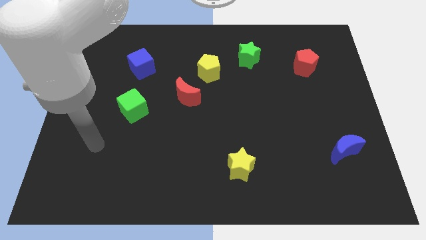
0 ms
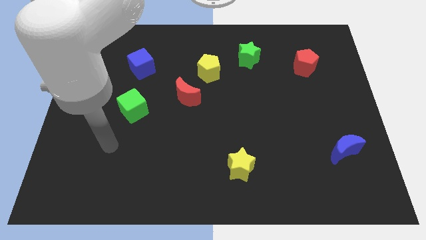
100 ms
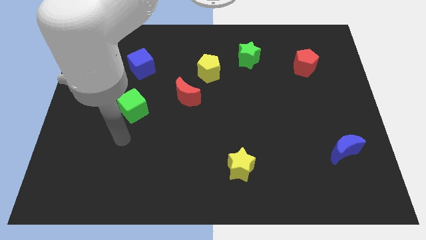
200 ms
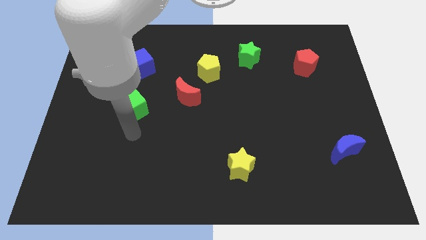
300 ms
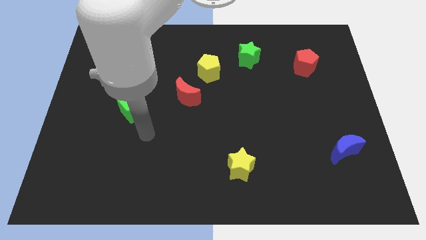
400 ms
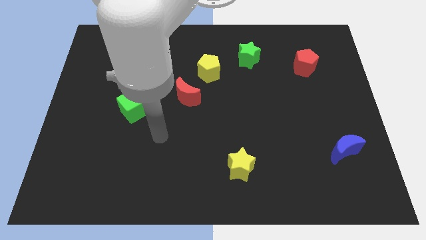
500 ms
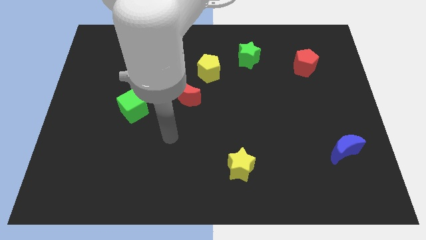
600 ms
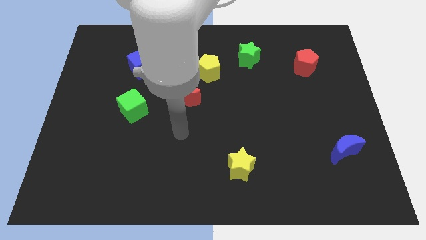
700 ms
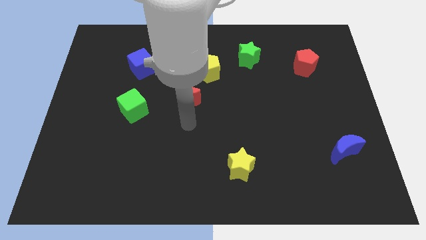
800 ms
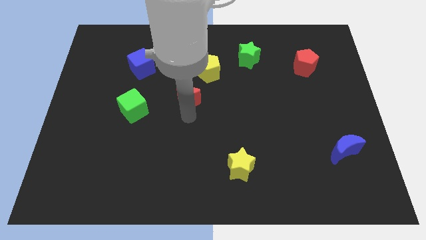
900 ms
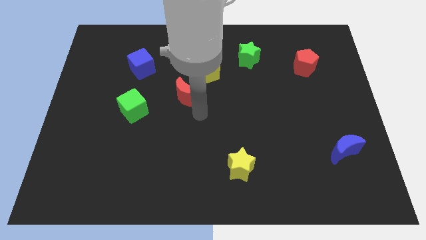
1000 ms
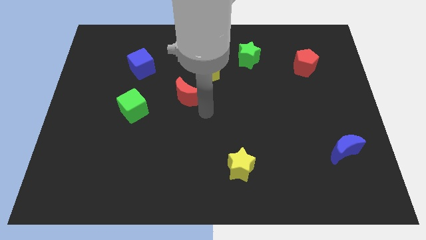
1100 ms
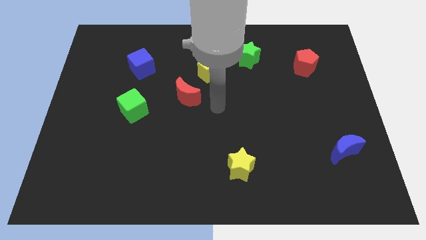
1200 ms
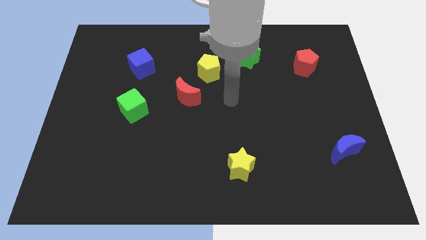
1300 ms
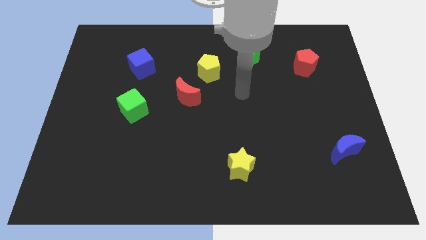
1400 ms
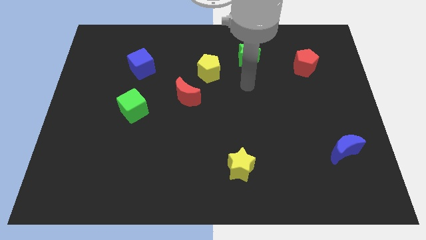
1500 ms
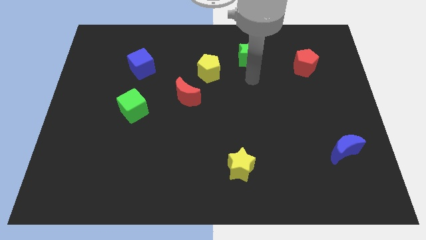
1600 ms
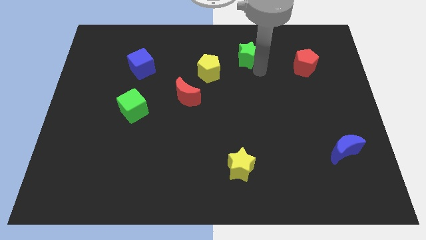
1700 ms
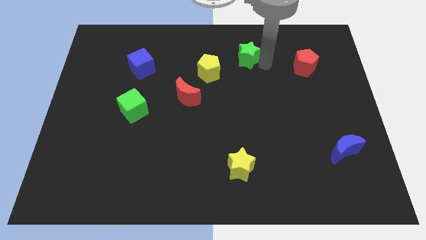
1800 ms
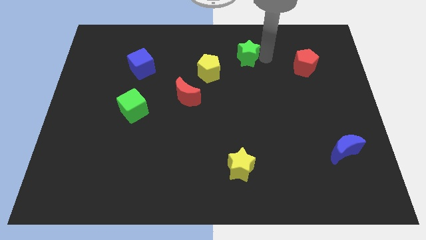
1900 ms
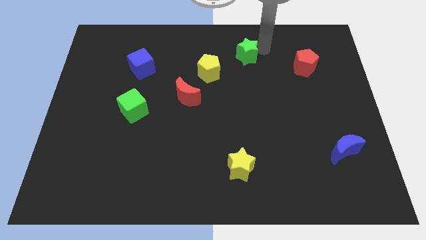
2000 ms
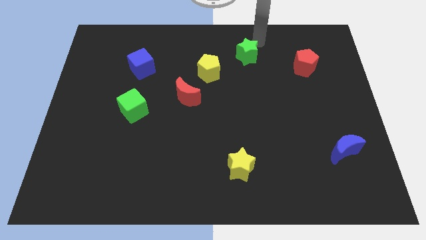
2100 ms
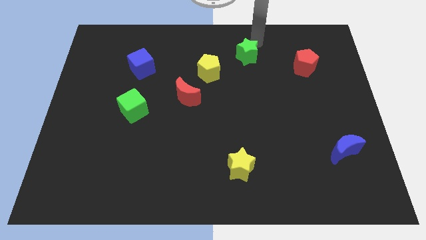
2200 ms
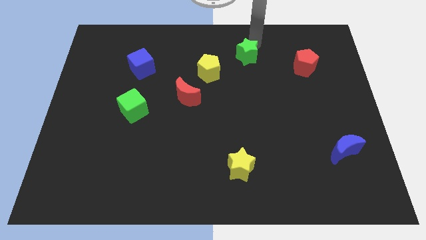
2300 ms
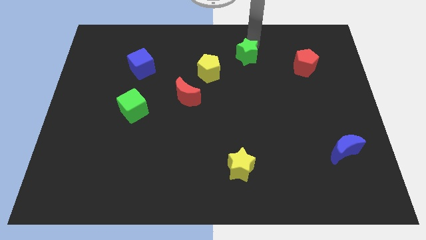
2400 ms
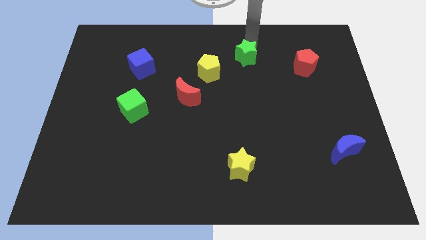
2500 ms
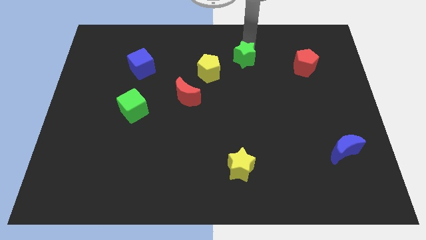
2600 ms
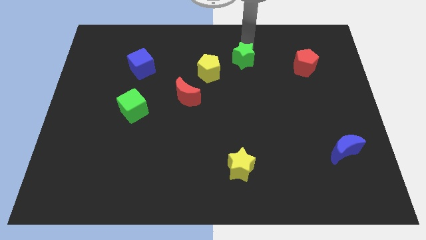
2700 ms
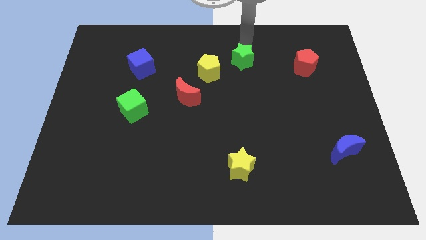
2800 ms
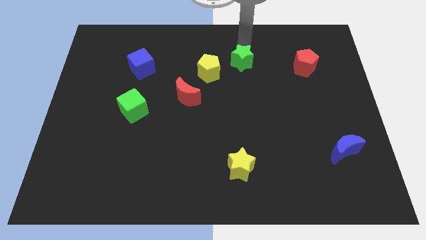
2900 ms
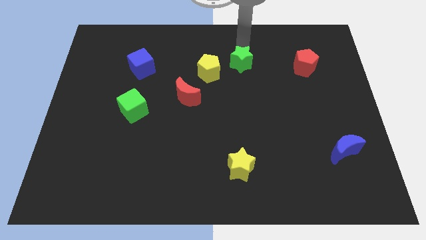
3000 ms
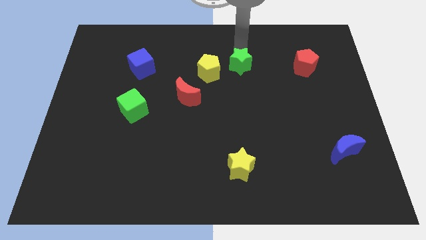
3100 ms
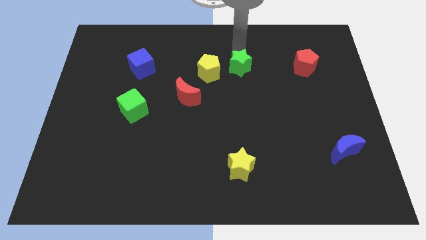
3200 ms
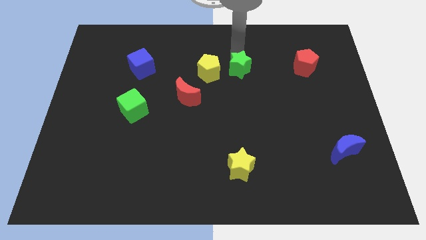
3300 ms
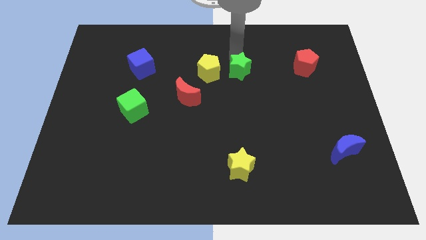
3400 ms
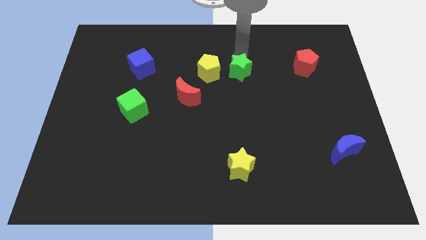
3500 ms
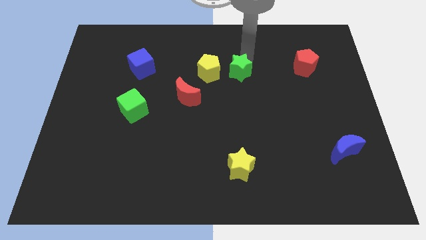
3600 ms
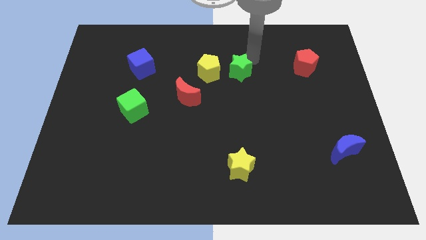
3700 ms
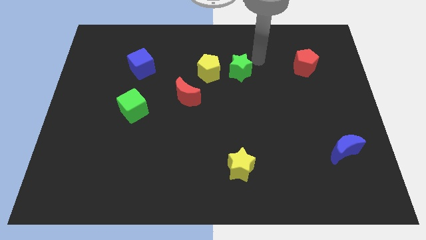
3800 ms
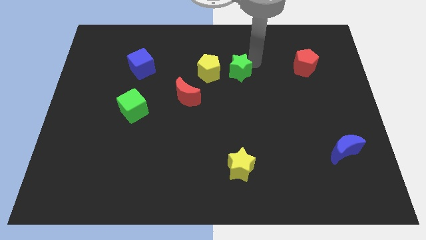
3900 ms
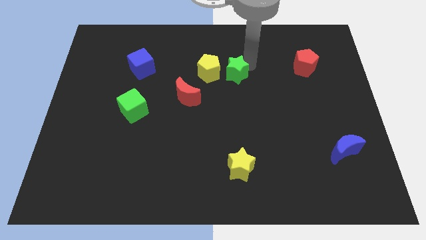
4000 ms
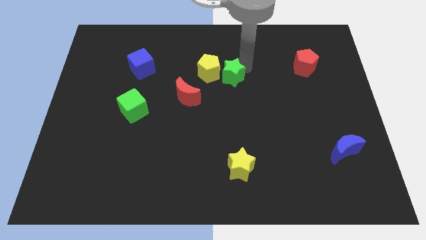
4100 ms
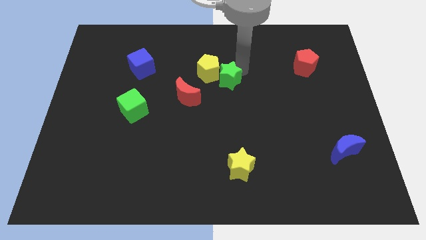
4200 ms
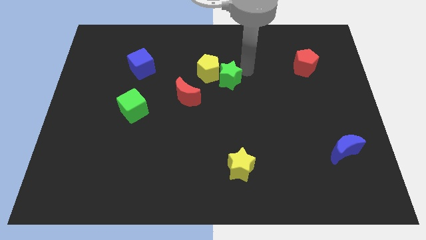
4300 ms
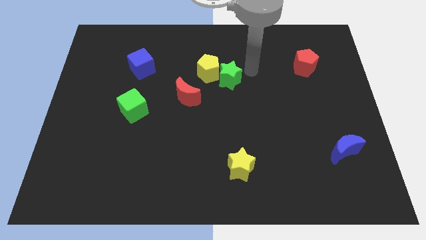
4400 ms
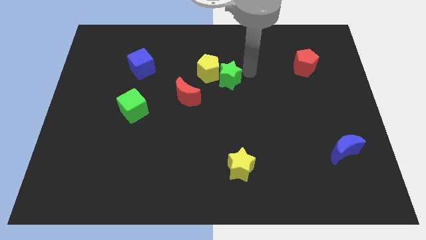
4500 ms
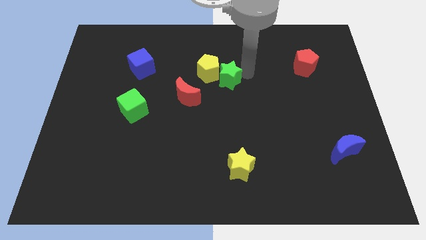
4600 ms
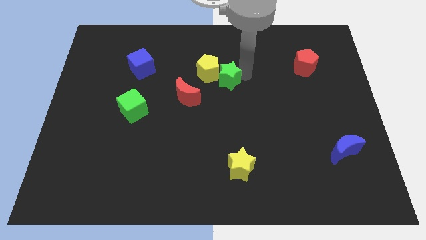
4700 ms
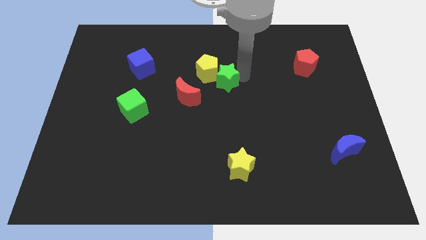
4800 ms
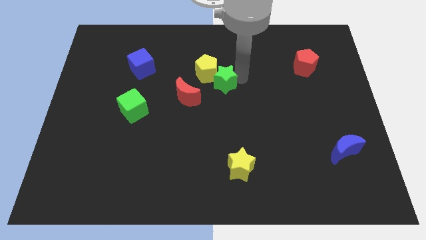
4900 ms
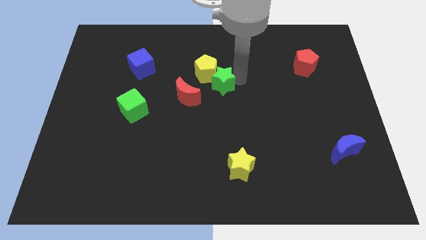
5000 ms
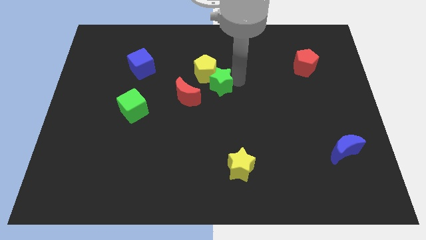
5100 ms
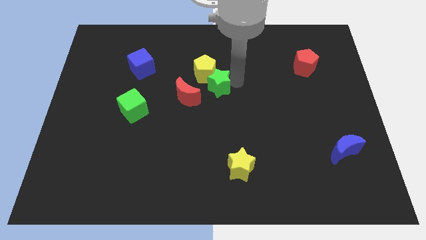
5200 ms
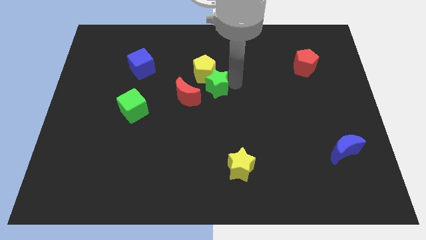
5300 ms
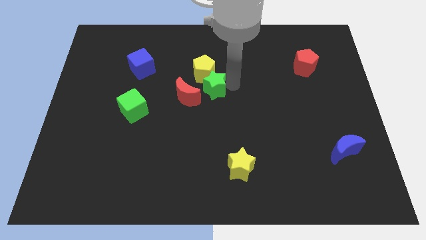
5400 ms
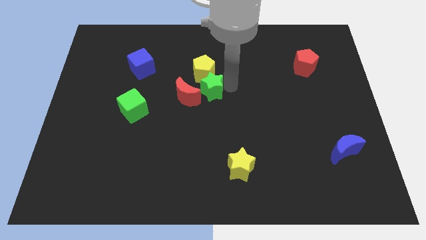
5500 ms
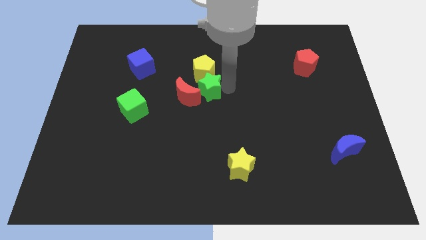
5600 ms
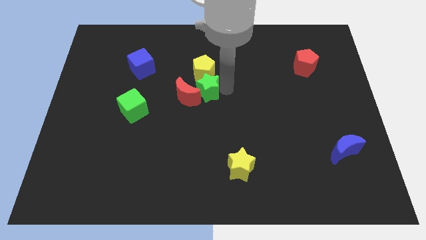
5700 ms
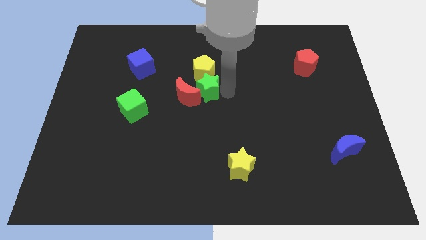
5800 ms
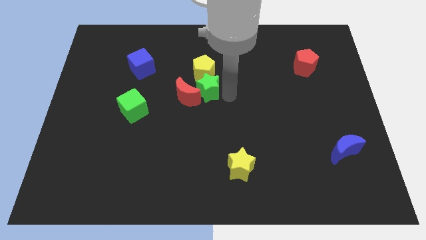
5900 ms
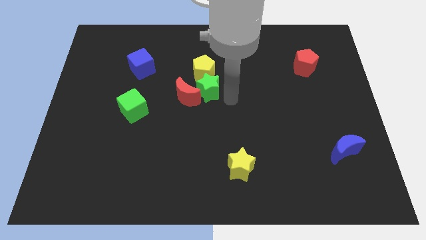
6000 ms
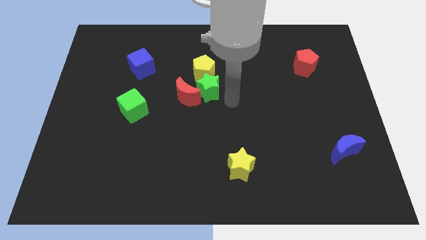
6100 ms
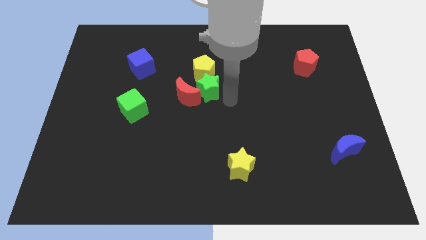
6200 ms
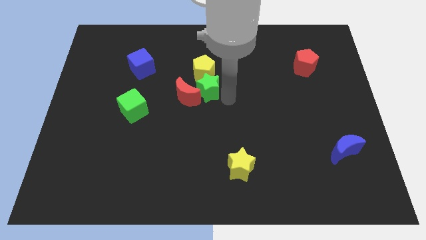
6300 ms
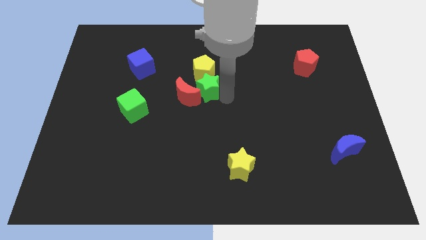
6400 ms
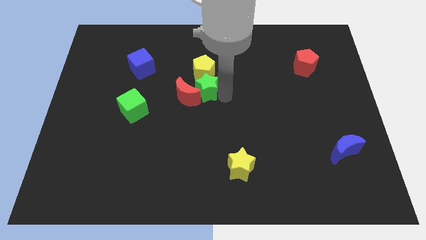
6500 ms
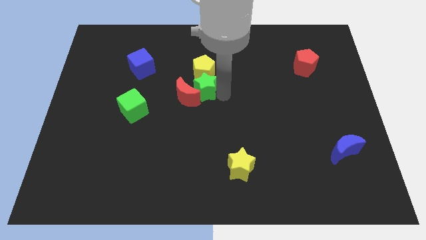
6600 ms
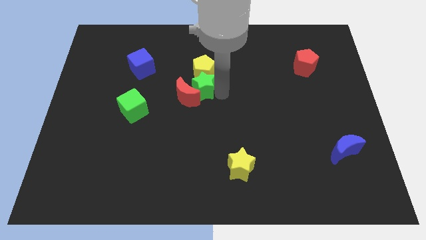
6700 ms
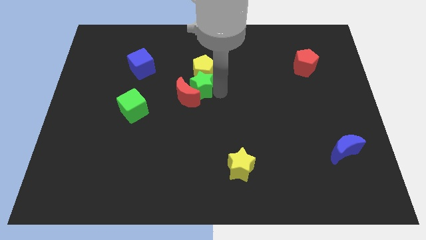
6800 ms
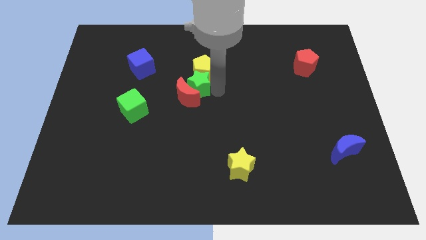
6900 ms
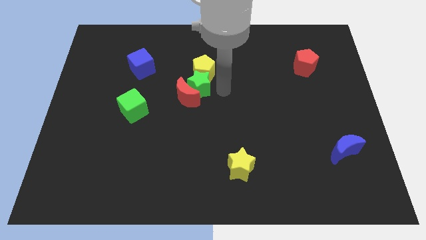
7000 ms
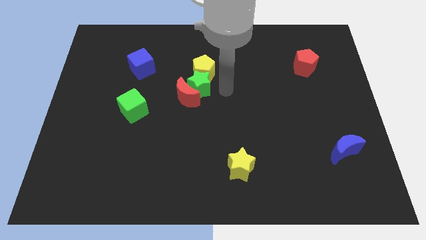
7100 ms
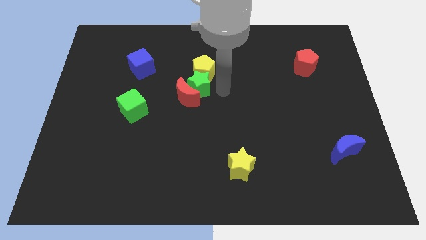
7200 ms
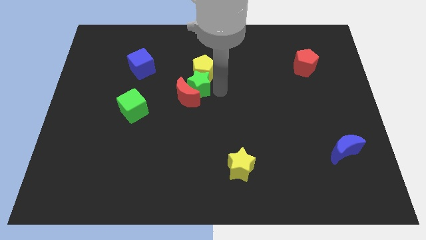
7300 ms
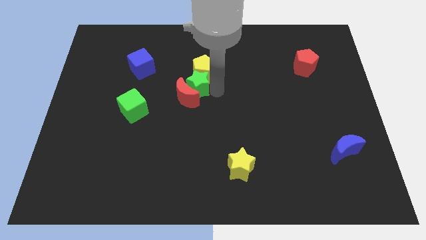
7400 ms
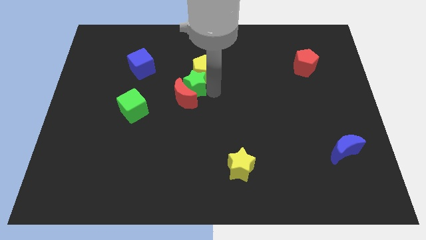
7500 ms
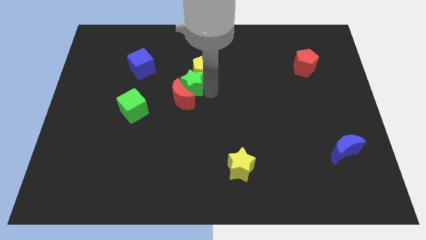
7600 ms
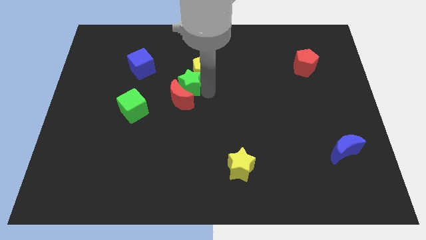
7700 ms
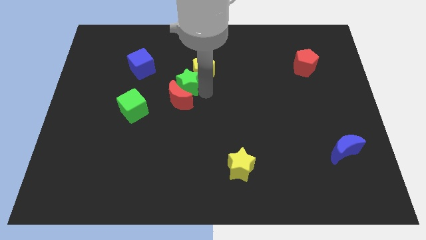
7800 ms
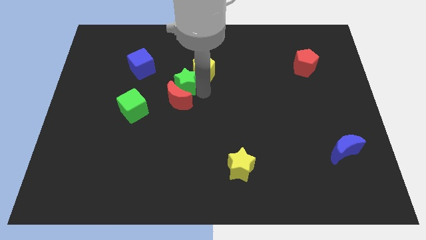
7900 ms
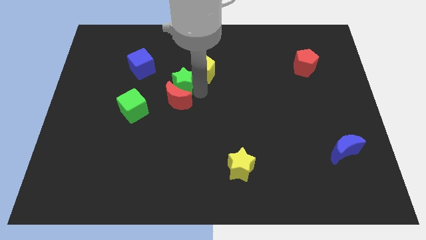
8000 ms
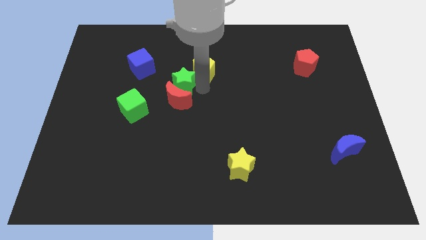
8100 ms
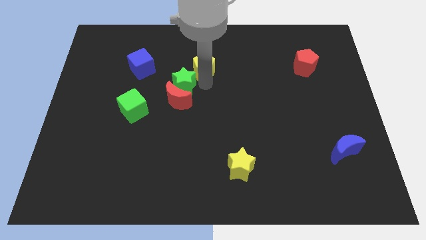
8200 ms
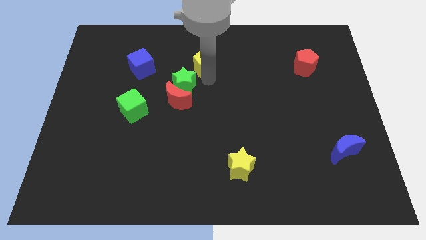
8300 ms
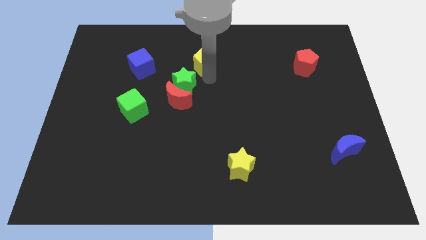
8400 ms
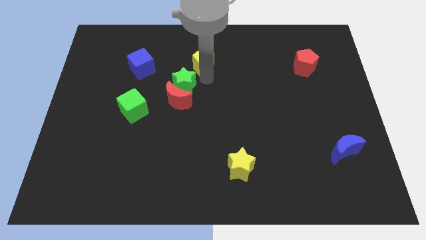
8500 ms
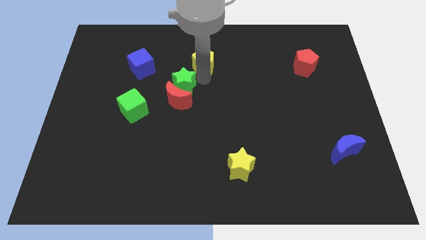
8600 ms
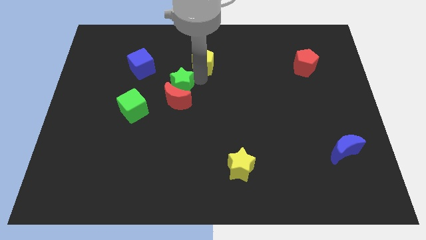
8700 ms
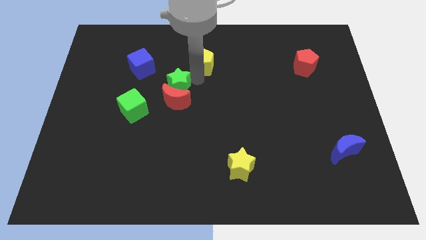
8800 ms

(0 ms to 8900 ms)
move the green star to the top right of the green cube
